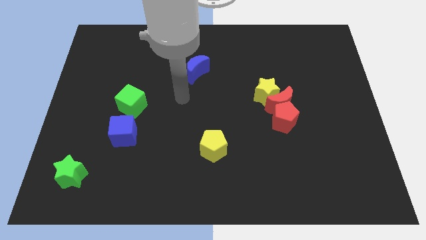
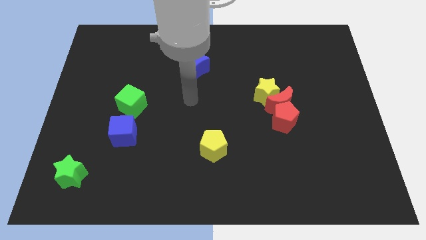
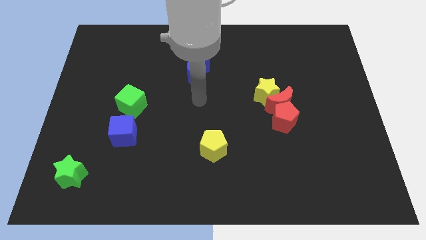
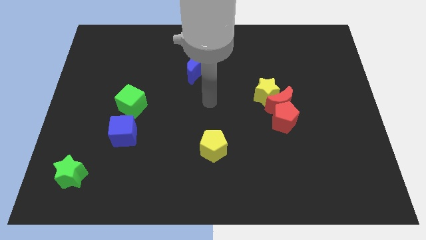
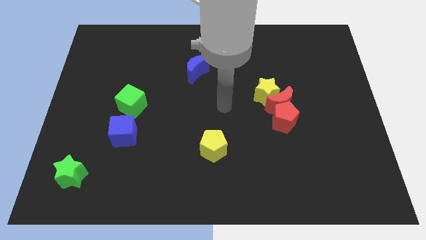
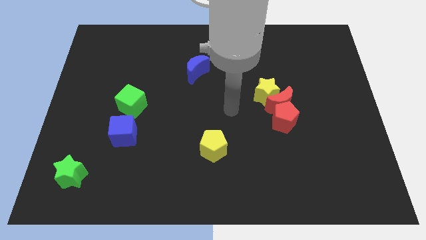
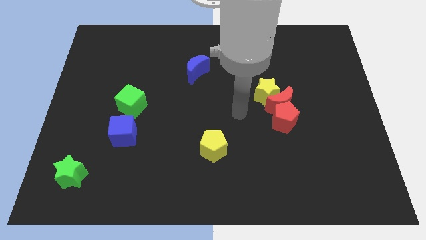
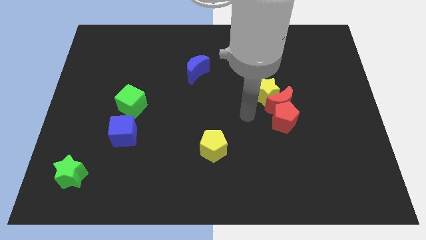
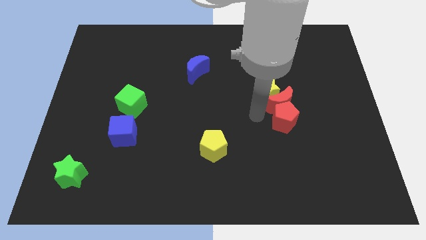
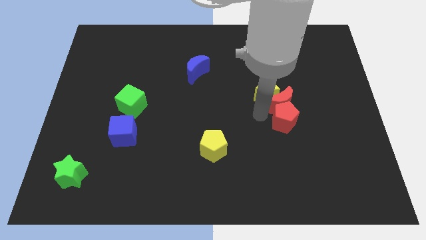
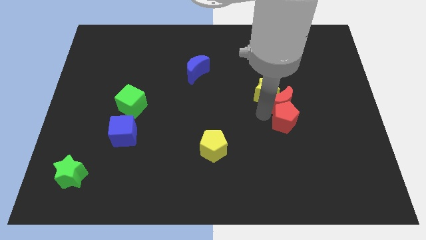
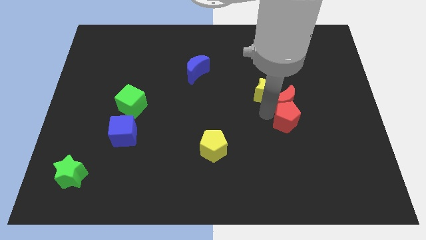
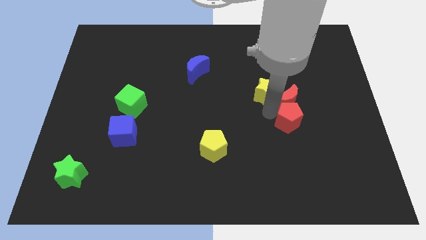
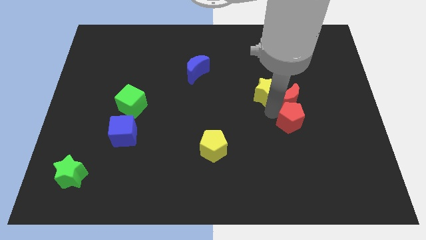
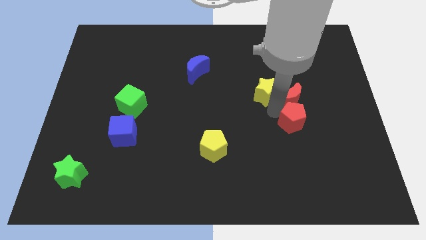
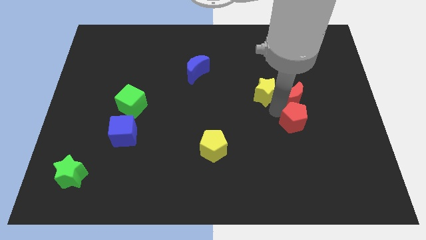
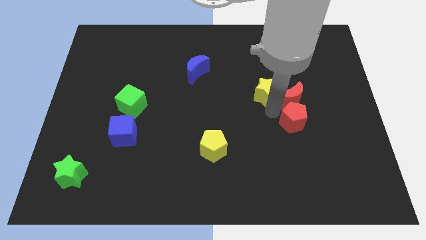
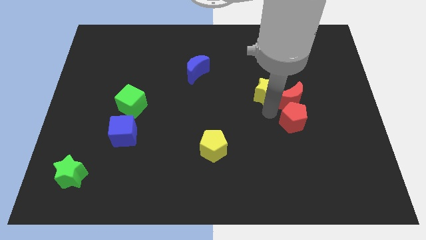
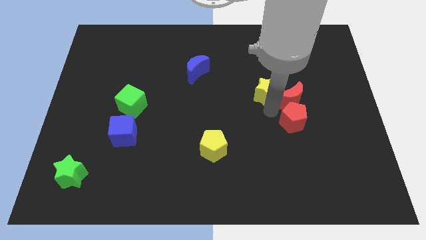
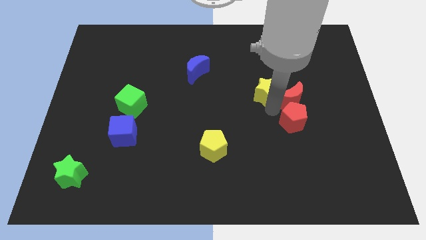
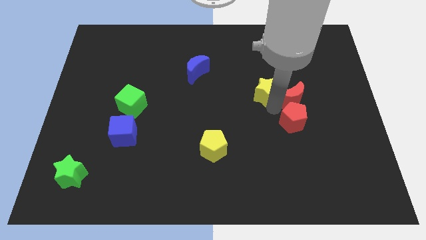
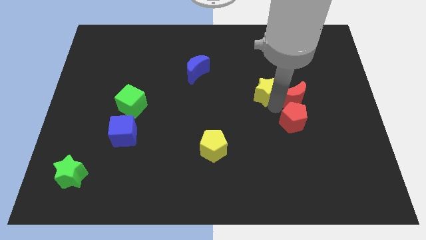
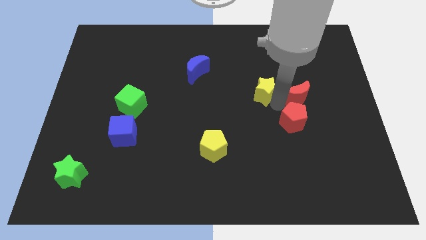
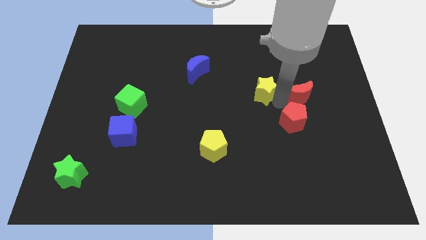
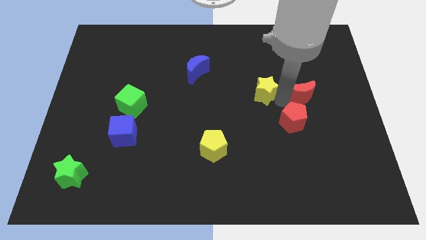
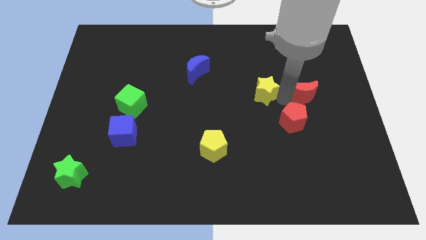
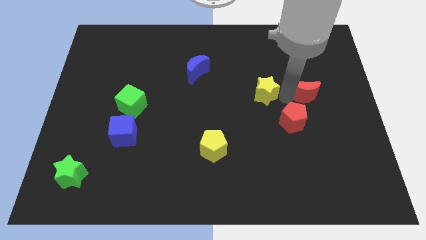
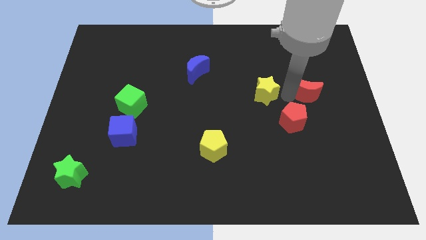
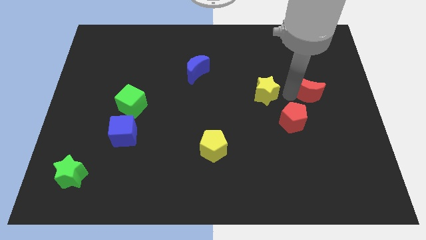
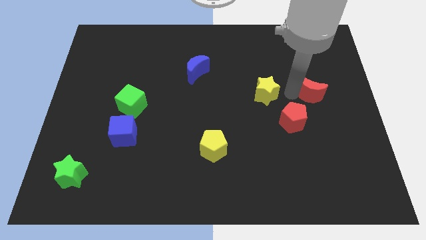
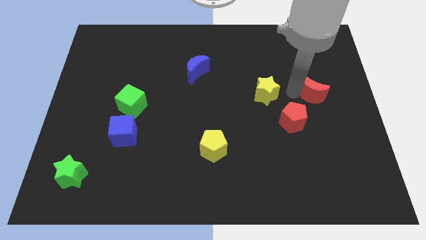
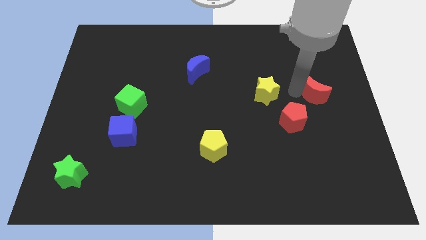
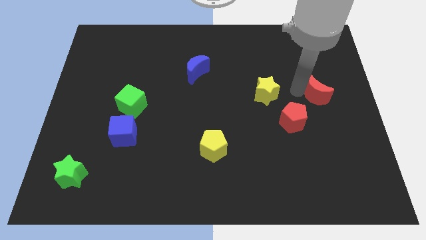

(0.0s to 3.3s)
pull the red moon apart from the yellow star and red pentagon

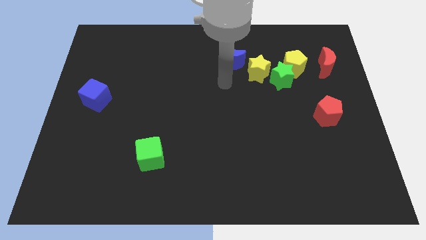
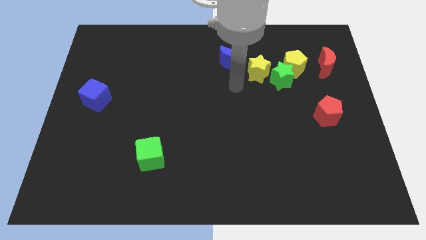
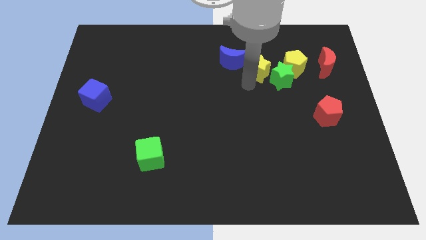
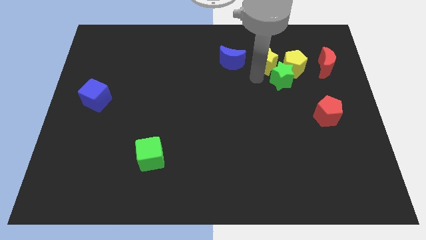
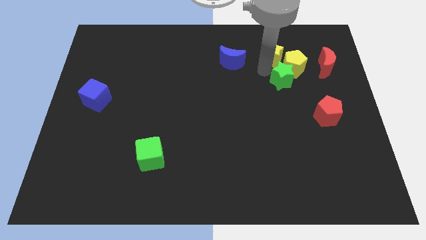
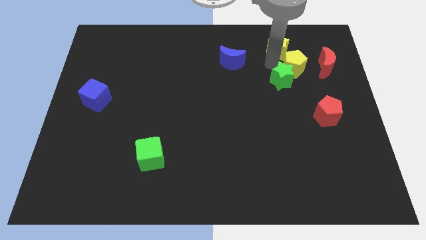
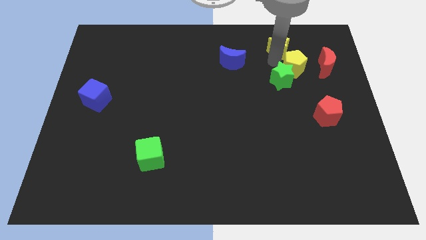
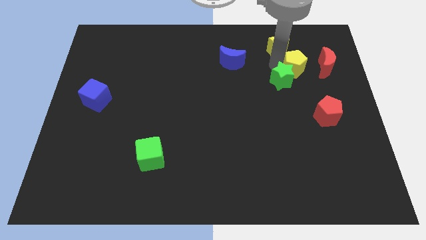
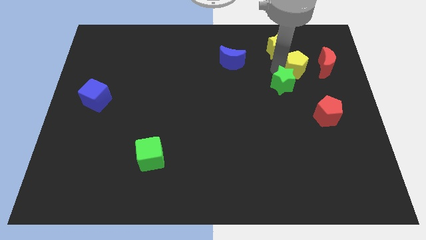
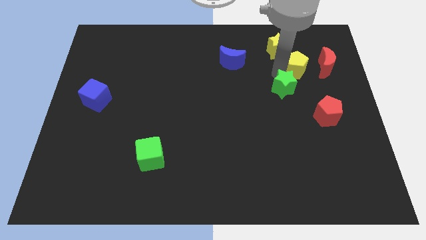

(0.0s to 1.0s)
move the green star away from the yellow pentagon and yellow star

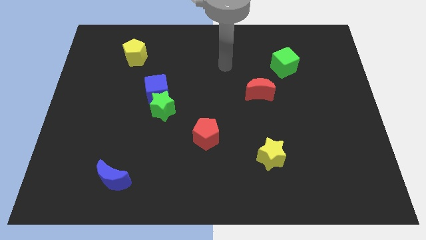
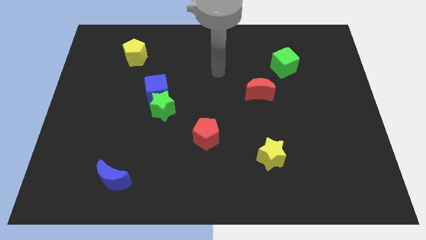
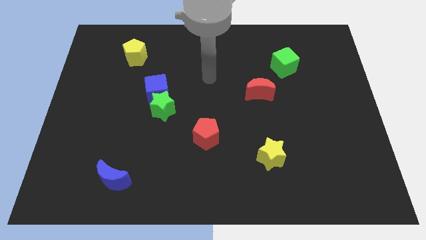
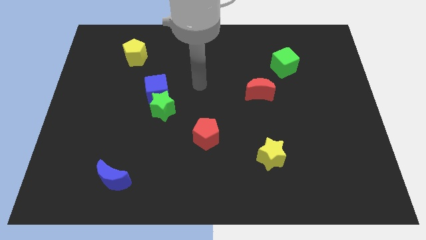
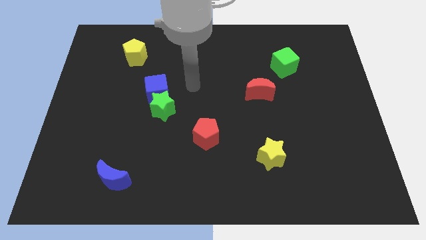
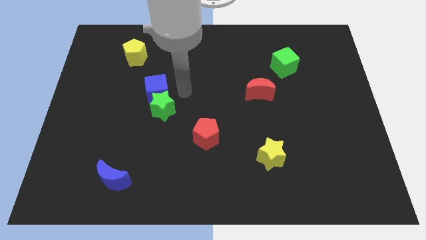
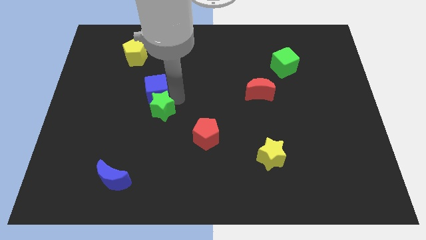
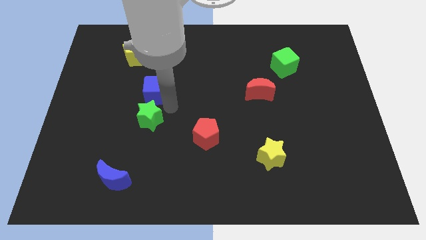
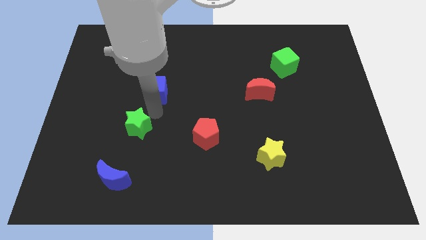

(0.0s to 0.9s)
pull the blue cube apart from the green star

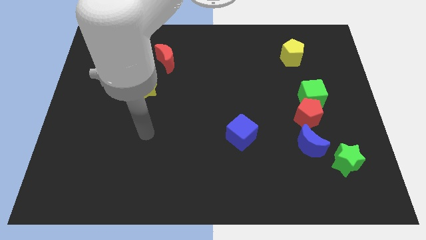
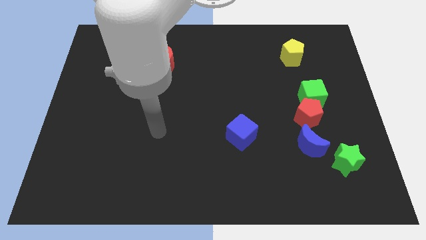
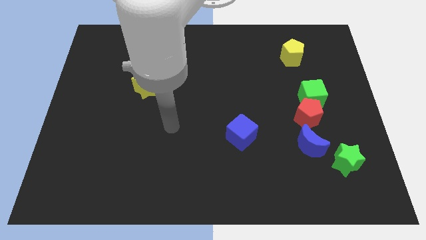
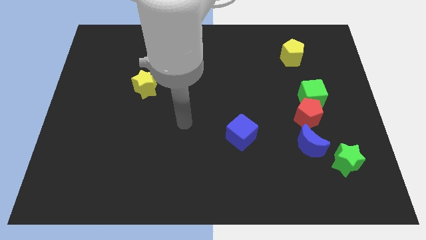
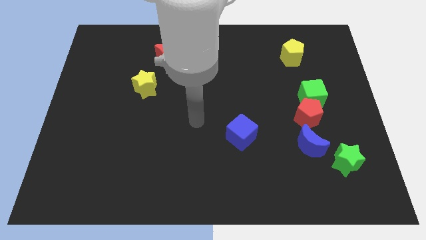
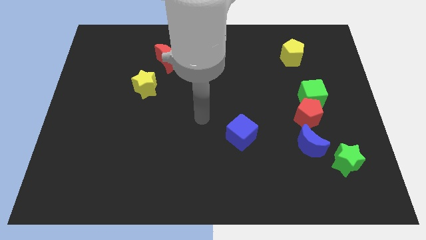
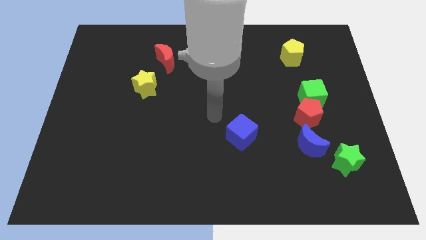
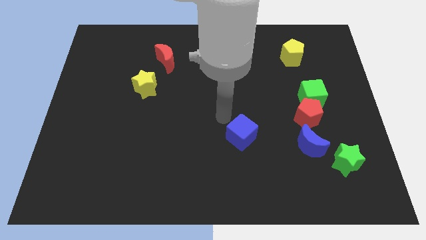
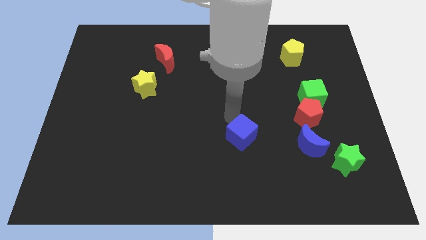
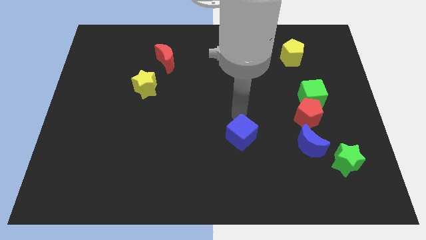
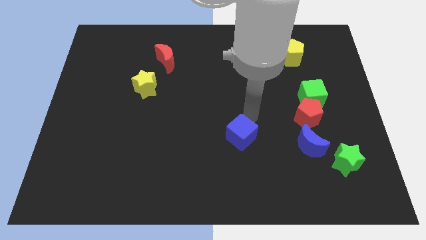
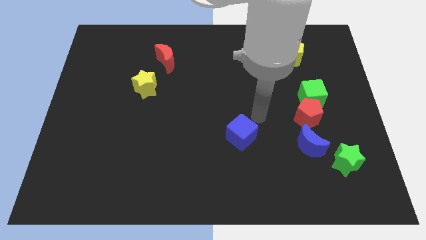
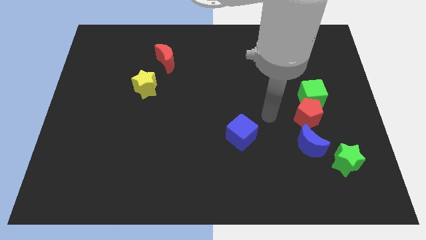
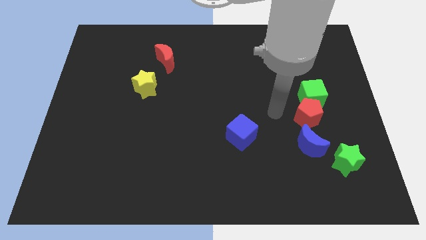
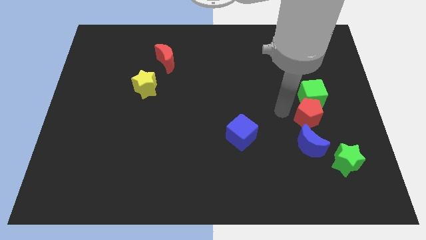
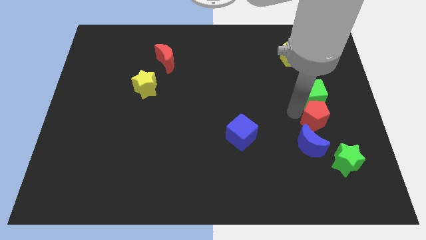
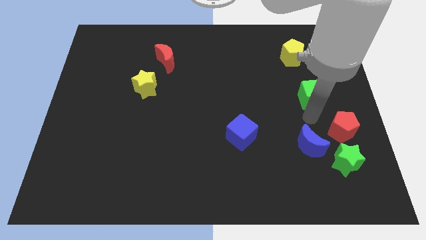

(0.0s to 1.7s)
move the green cube away from the red pentagon

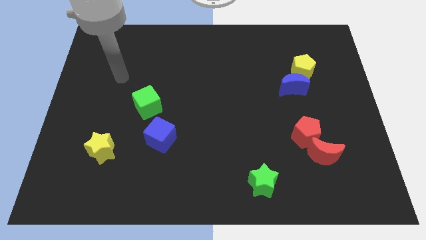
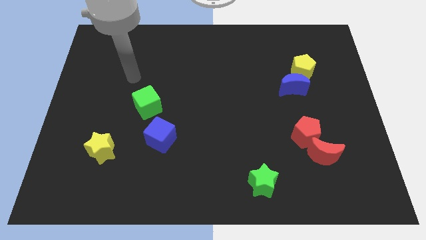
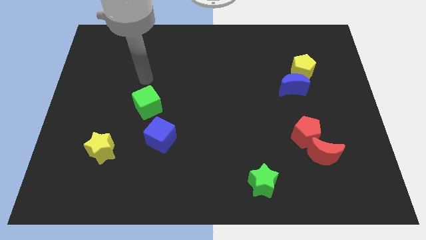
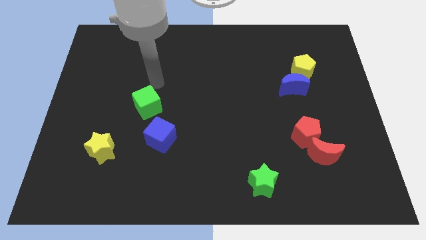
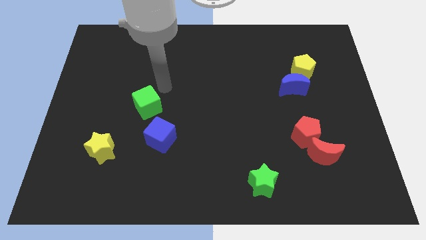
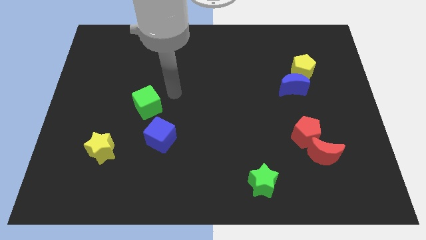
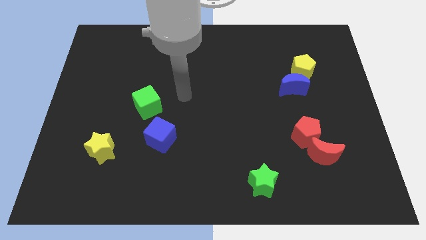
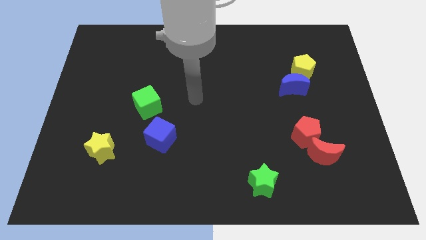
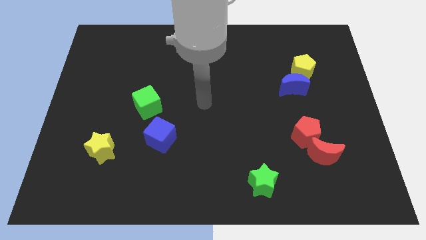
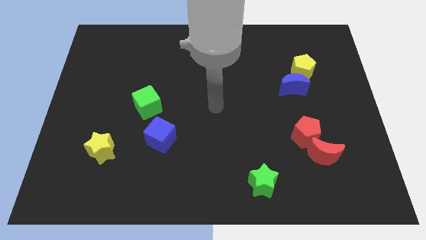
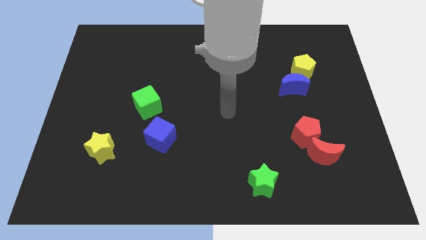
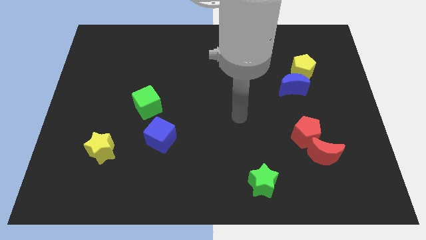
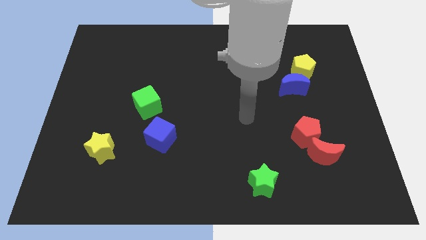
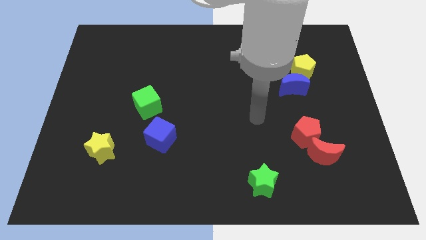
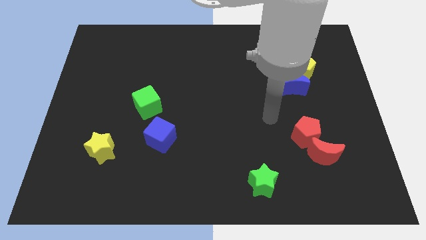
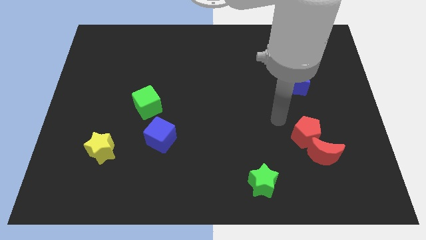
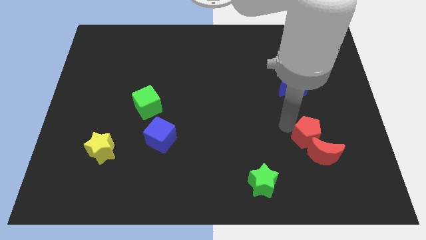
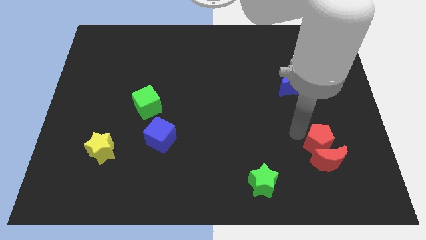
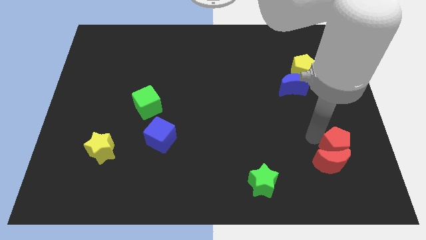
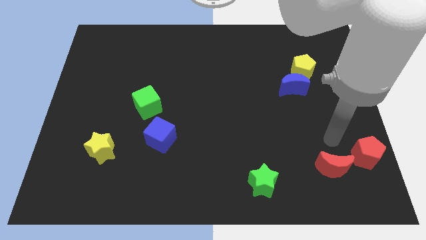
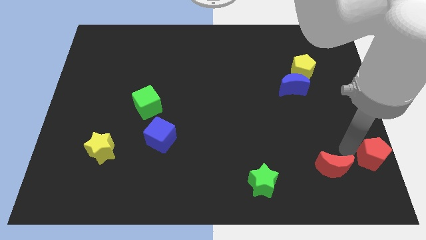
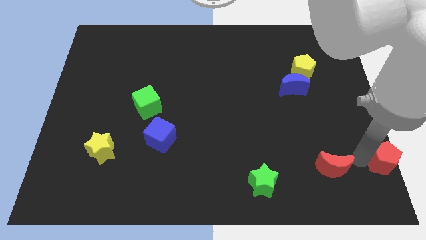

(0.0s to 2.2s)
separate the red moon from the red pentagon
